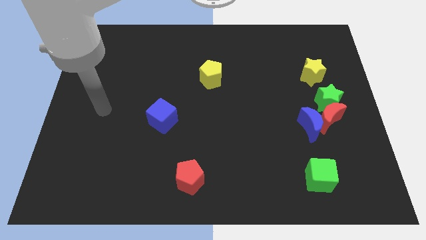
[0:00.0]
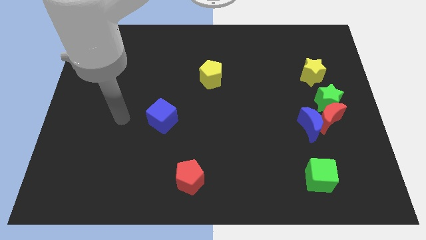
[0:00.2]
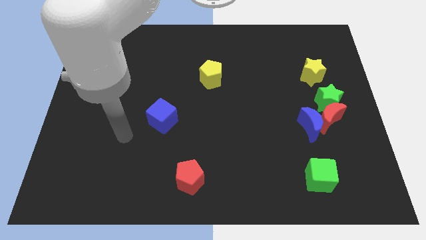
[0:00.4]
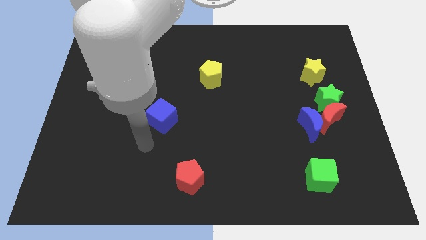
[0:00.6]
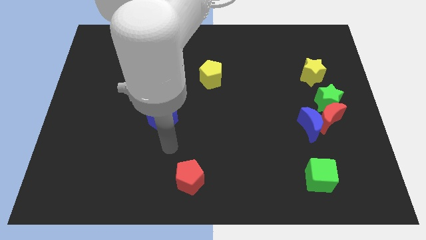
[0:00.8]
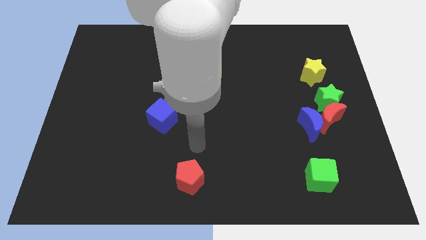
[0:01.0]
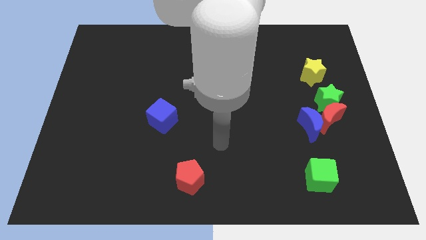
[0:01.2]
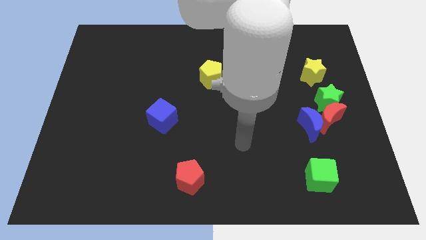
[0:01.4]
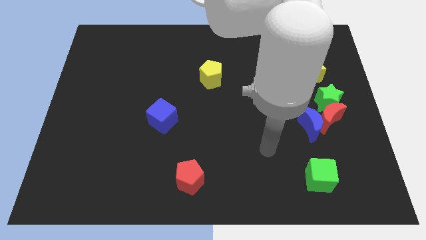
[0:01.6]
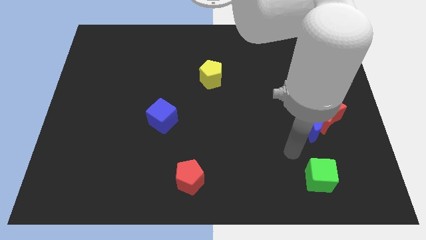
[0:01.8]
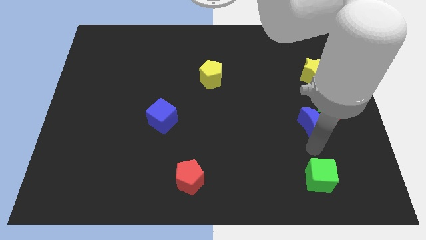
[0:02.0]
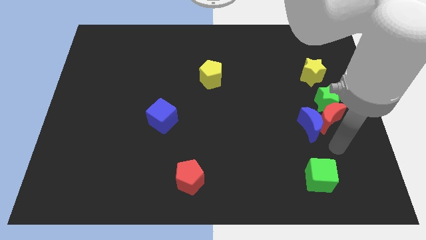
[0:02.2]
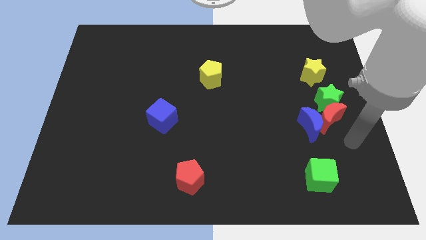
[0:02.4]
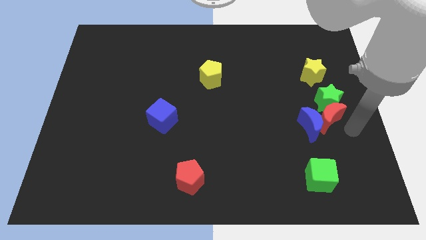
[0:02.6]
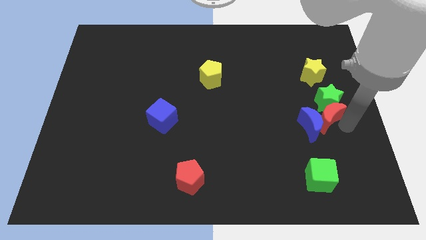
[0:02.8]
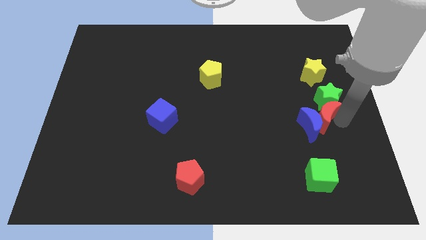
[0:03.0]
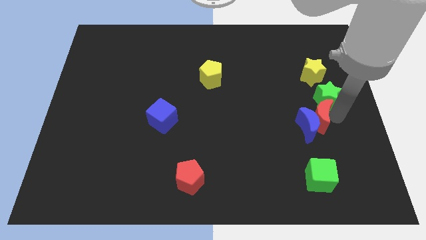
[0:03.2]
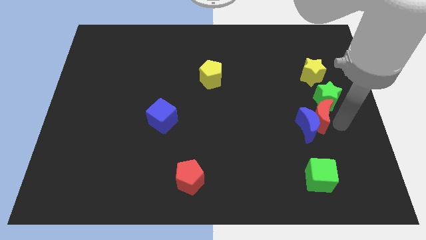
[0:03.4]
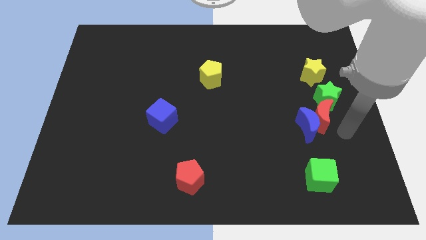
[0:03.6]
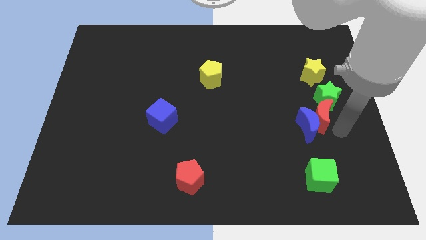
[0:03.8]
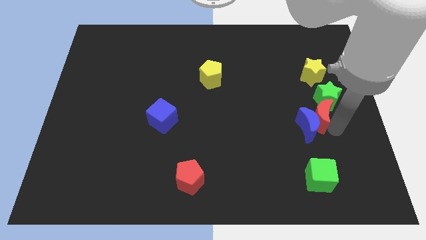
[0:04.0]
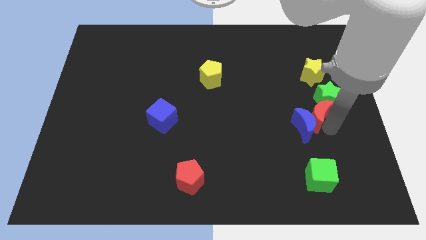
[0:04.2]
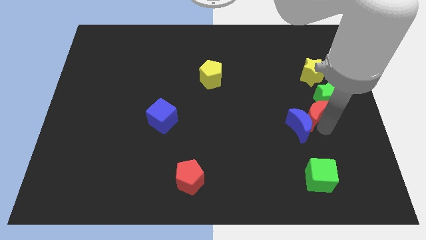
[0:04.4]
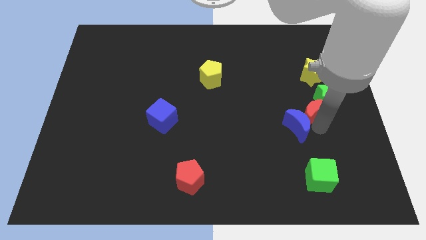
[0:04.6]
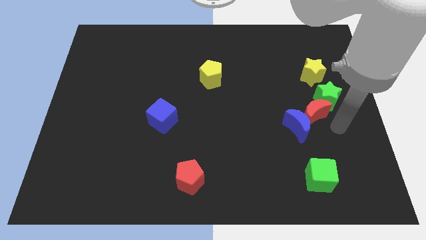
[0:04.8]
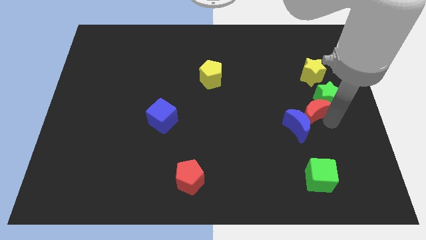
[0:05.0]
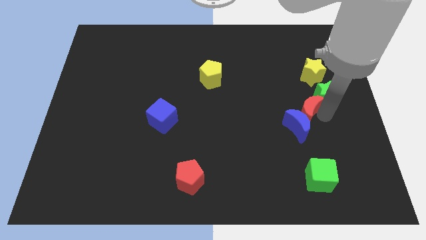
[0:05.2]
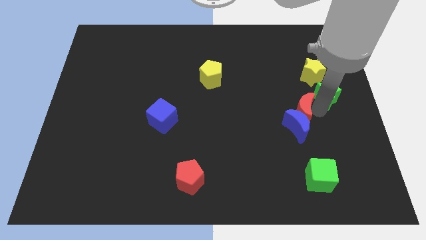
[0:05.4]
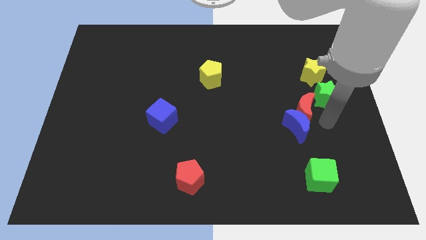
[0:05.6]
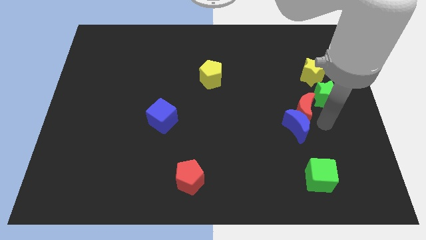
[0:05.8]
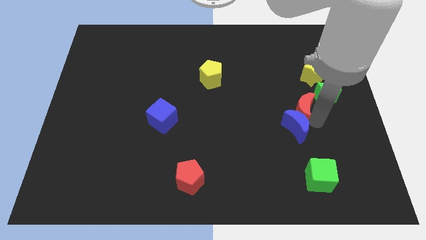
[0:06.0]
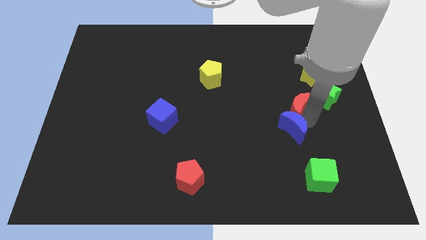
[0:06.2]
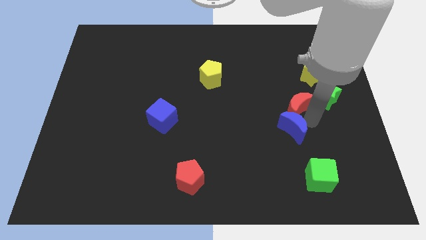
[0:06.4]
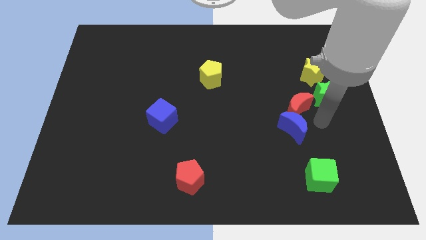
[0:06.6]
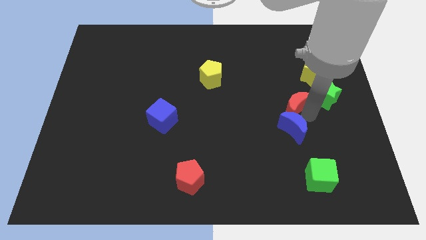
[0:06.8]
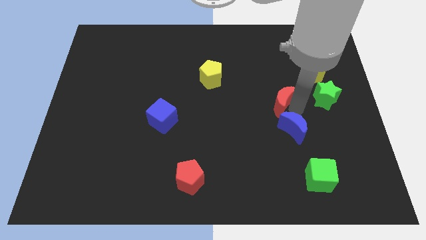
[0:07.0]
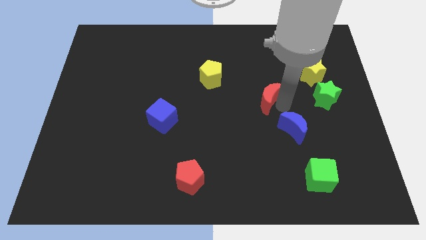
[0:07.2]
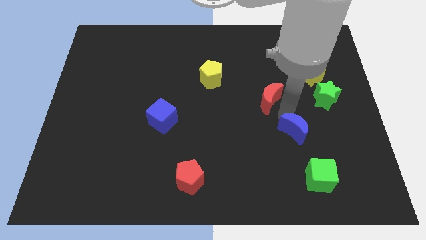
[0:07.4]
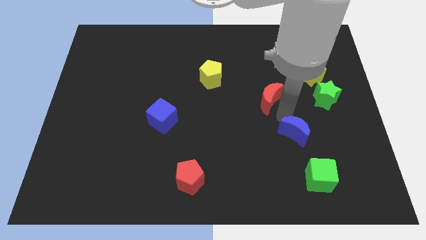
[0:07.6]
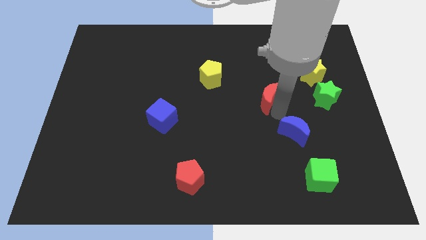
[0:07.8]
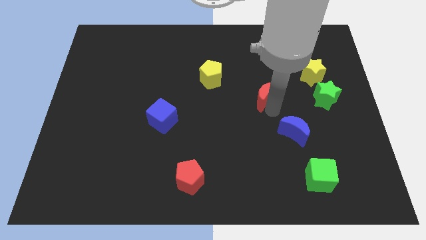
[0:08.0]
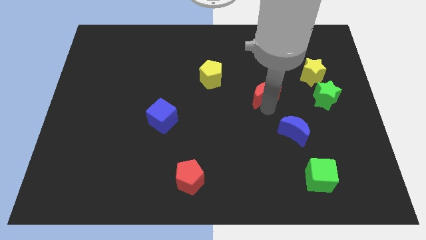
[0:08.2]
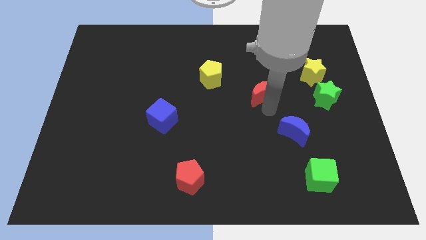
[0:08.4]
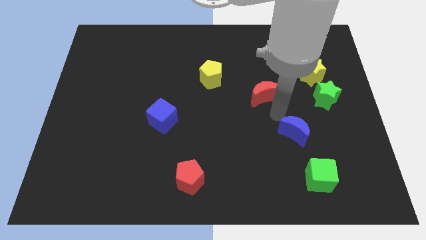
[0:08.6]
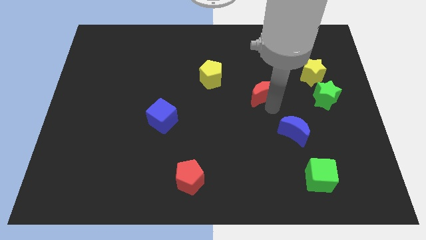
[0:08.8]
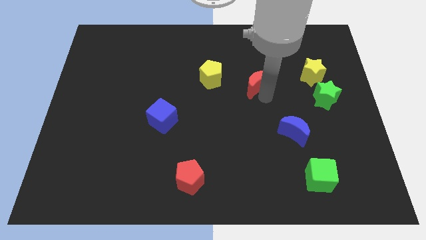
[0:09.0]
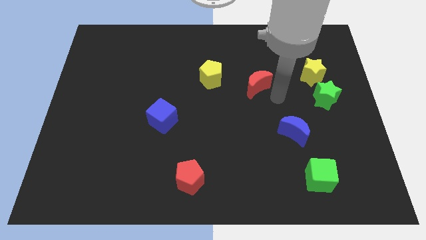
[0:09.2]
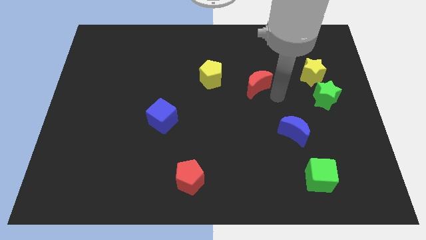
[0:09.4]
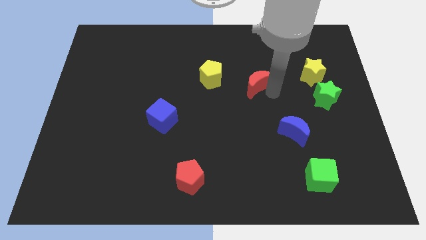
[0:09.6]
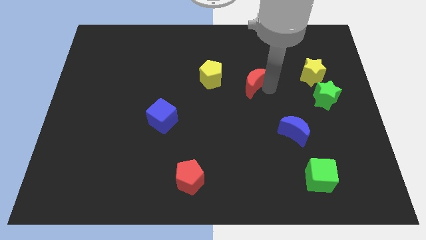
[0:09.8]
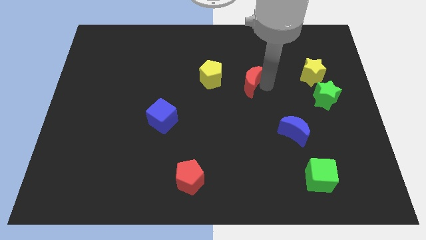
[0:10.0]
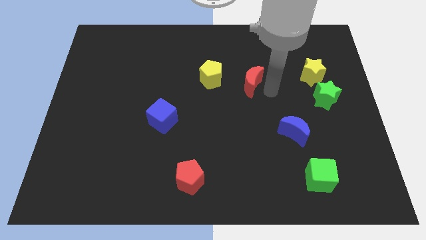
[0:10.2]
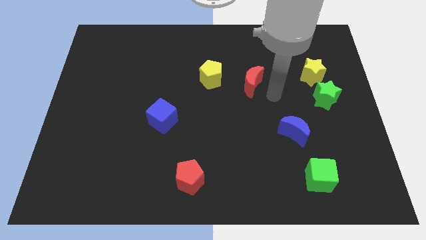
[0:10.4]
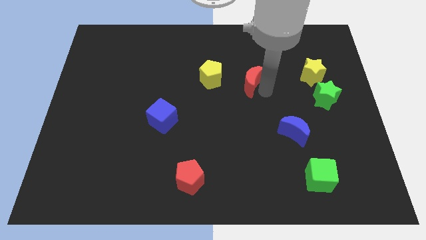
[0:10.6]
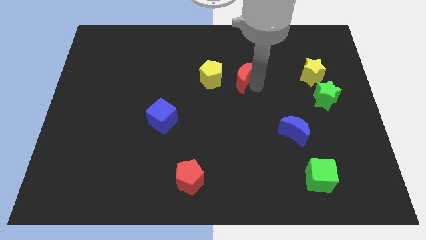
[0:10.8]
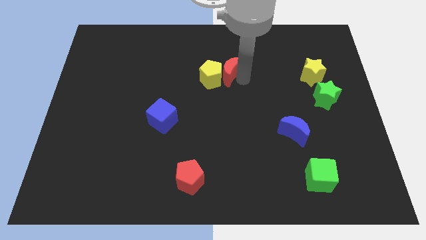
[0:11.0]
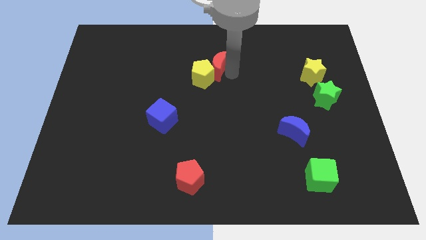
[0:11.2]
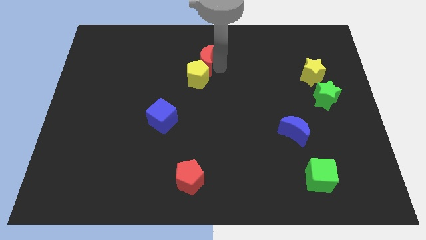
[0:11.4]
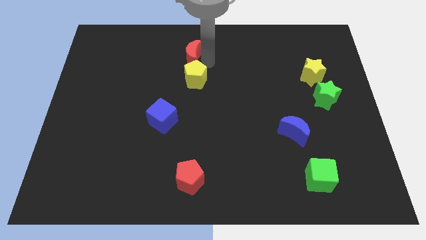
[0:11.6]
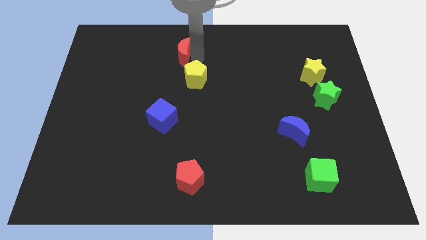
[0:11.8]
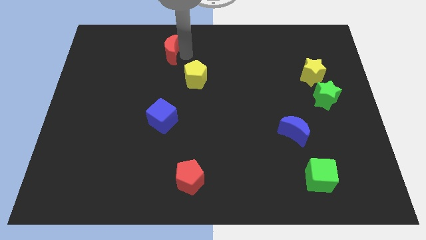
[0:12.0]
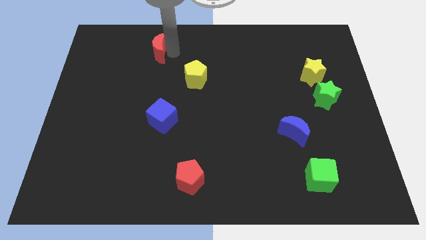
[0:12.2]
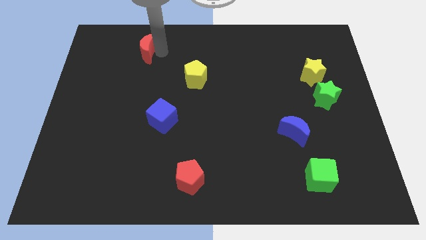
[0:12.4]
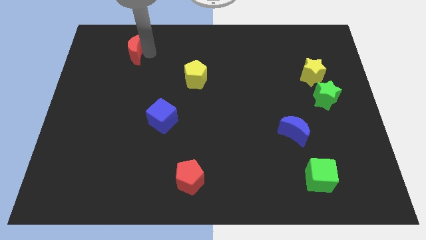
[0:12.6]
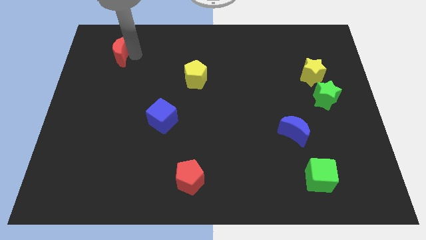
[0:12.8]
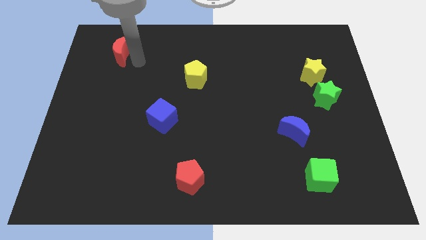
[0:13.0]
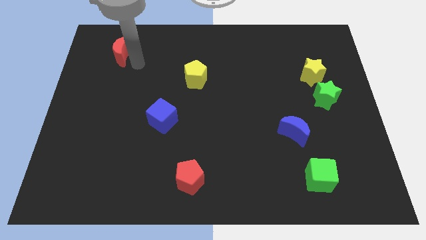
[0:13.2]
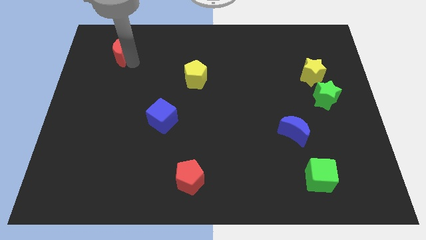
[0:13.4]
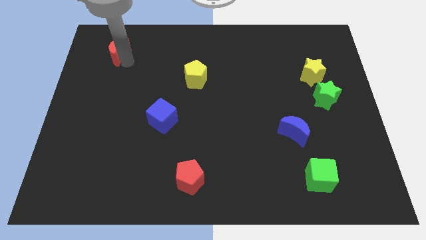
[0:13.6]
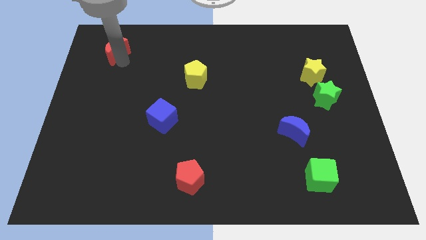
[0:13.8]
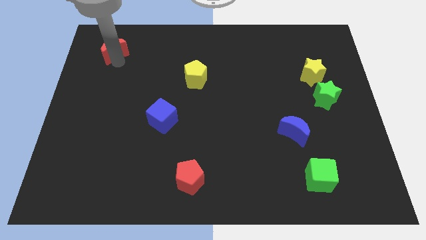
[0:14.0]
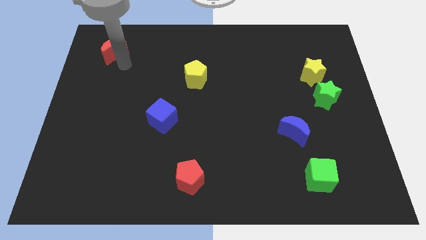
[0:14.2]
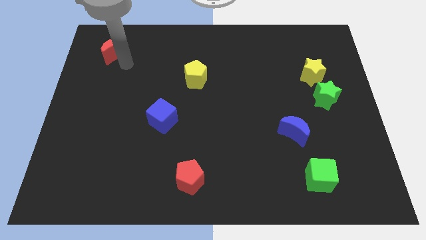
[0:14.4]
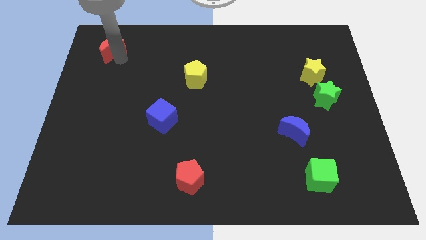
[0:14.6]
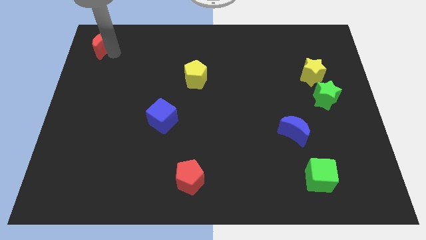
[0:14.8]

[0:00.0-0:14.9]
put the red moon to the top left of the board

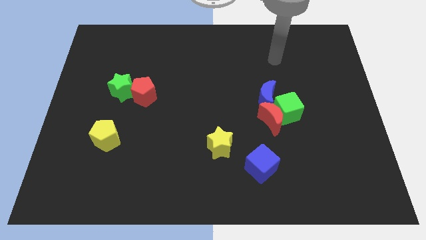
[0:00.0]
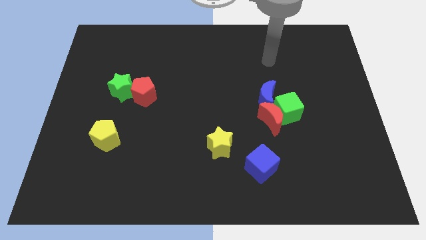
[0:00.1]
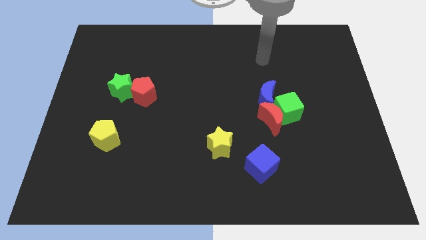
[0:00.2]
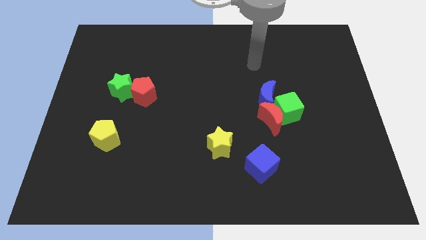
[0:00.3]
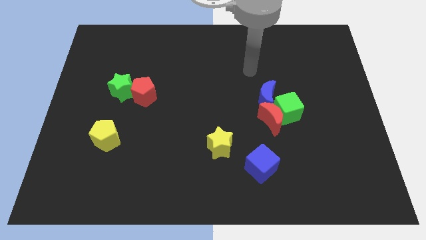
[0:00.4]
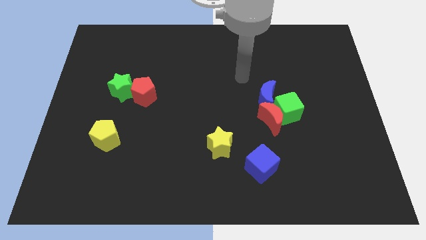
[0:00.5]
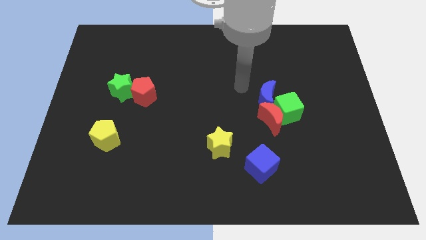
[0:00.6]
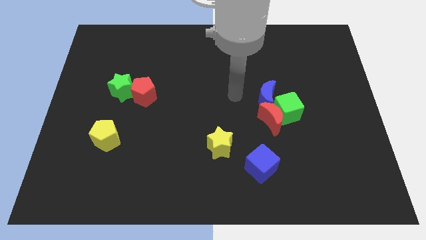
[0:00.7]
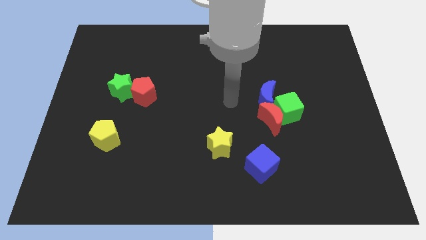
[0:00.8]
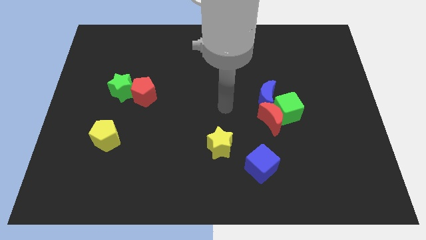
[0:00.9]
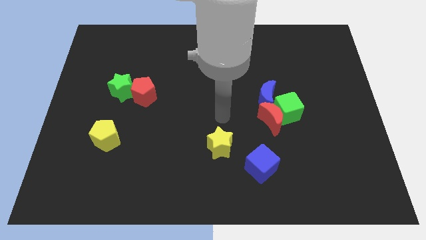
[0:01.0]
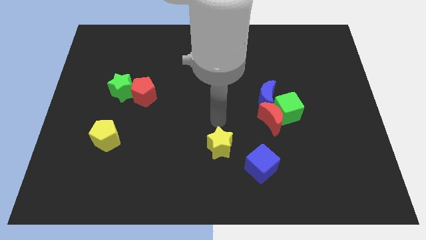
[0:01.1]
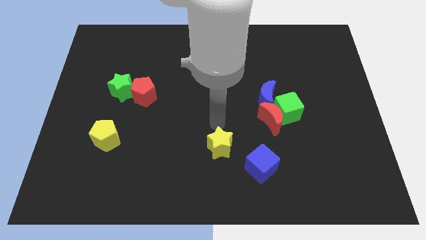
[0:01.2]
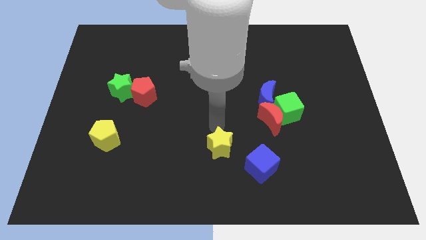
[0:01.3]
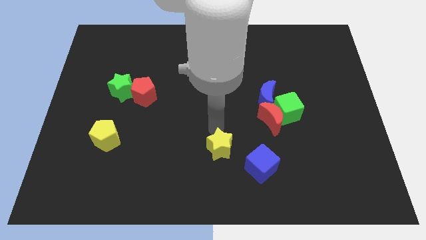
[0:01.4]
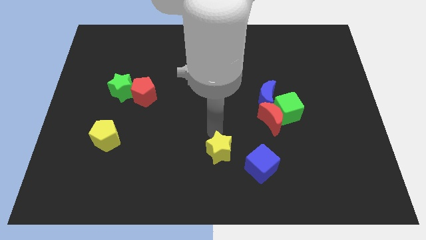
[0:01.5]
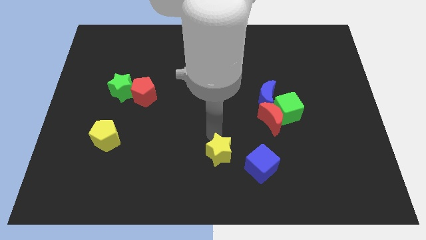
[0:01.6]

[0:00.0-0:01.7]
push the yellow star to the bottom side
